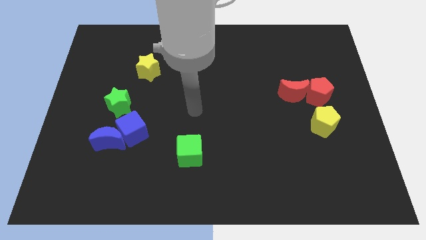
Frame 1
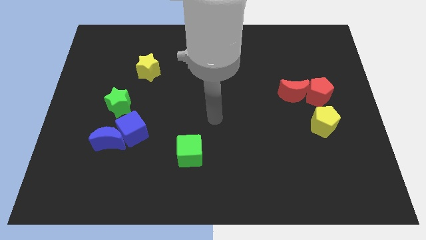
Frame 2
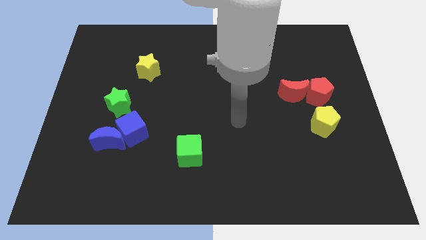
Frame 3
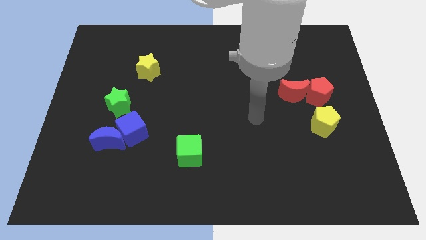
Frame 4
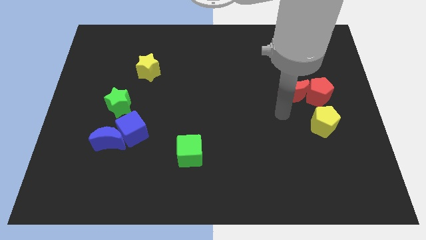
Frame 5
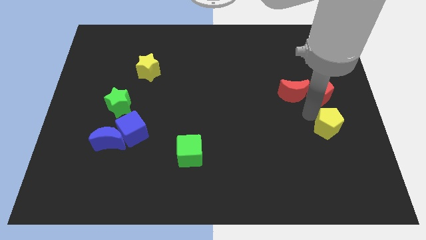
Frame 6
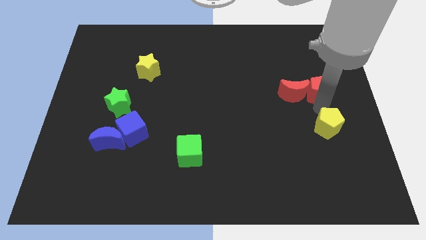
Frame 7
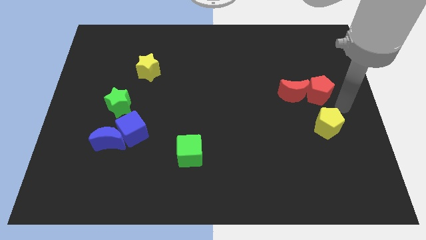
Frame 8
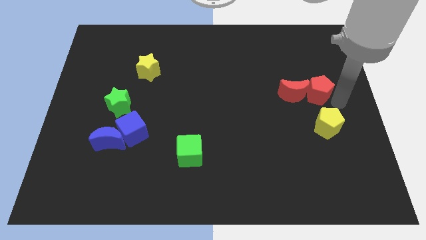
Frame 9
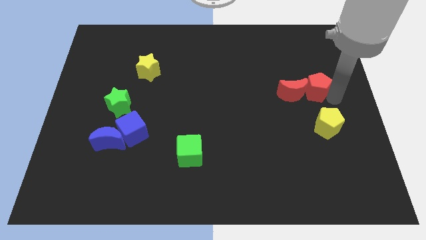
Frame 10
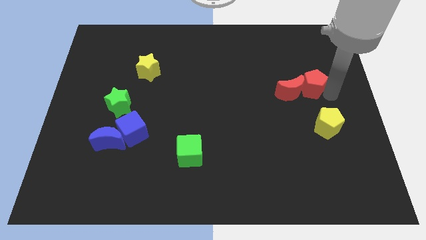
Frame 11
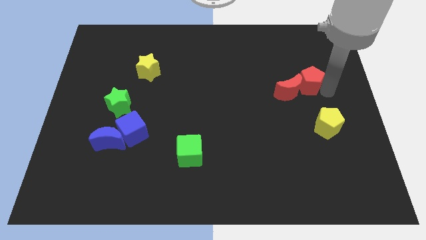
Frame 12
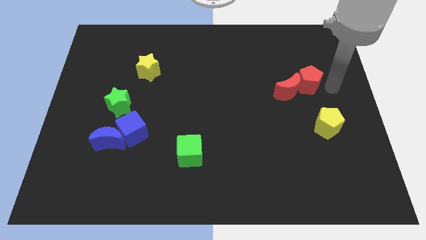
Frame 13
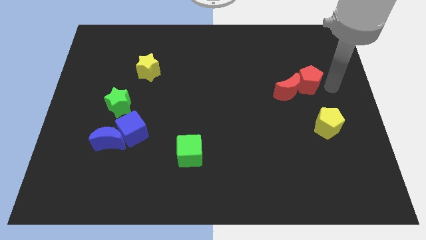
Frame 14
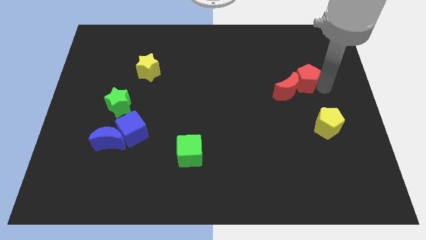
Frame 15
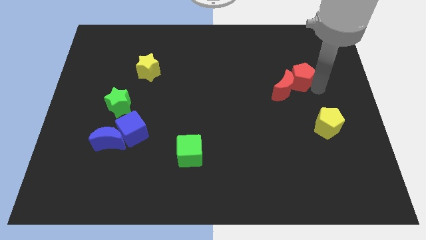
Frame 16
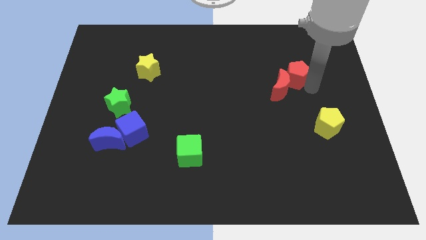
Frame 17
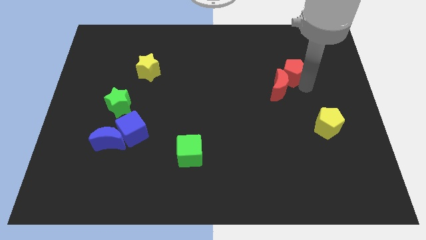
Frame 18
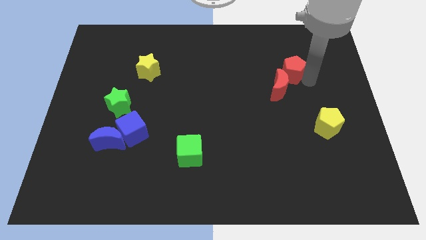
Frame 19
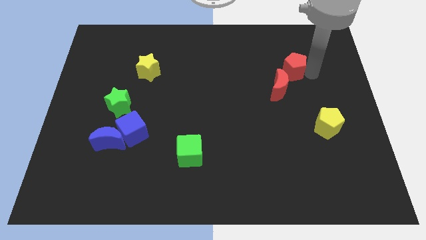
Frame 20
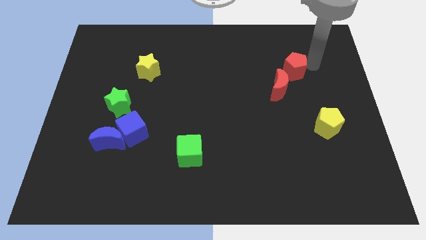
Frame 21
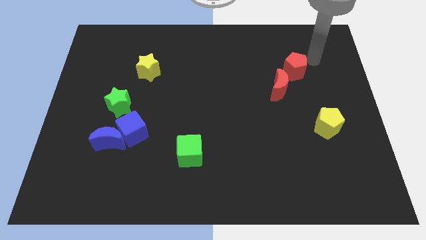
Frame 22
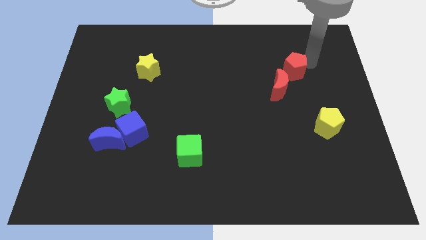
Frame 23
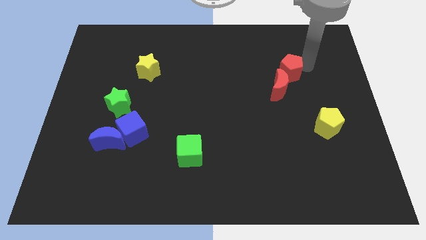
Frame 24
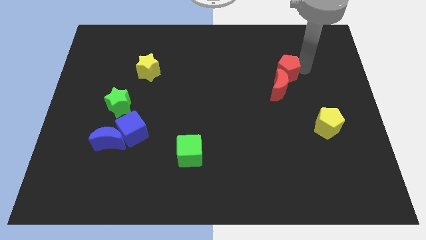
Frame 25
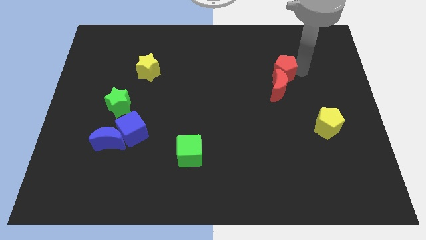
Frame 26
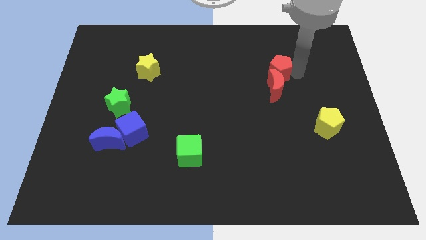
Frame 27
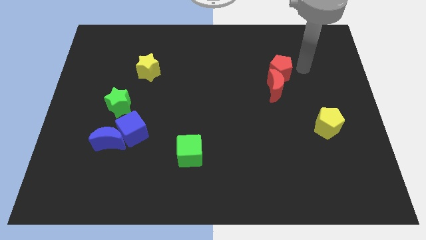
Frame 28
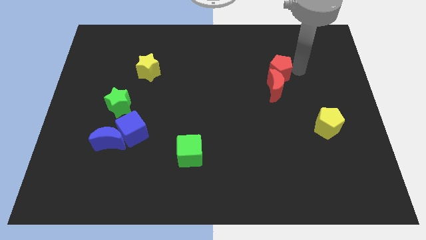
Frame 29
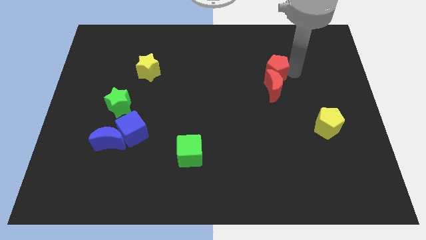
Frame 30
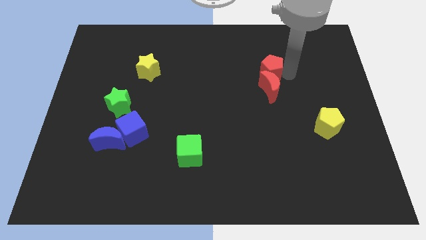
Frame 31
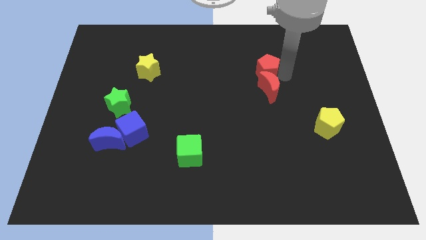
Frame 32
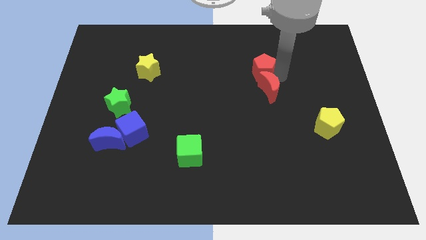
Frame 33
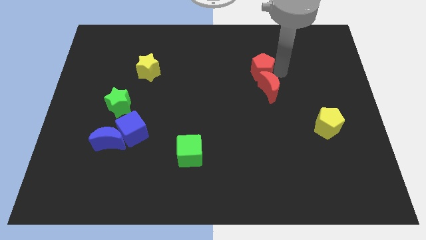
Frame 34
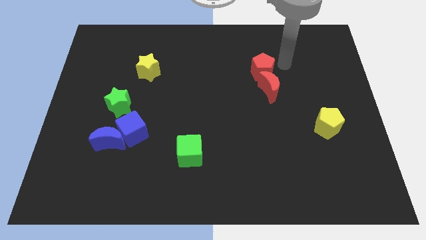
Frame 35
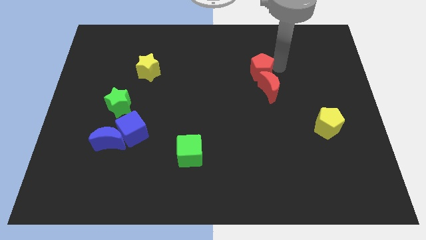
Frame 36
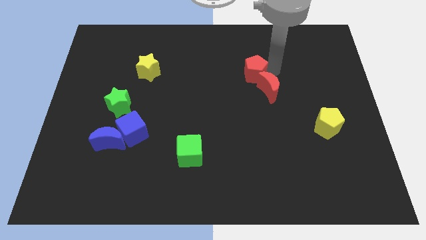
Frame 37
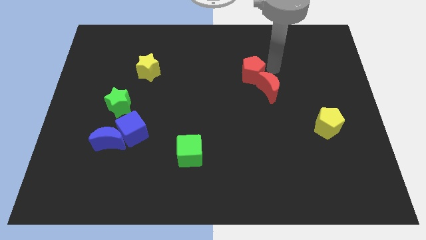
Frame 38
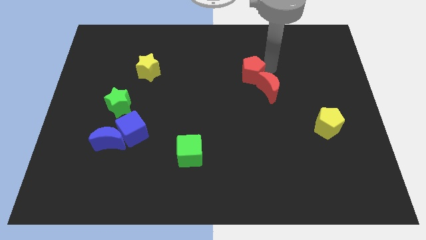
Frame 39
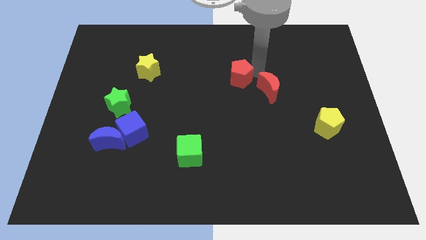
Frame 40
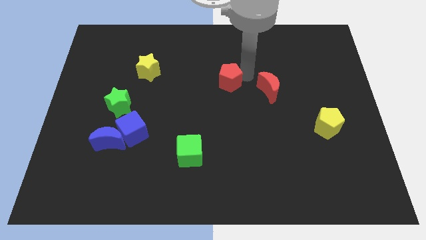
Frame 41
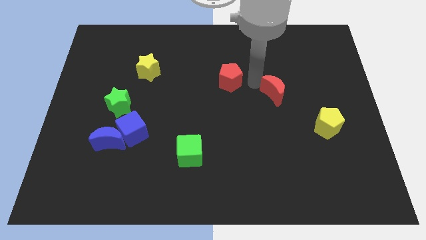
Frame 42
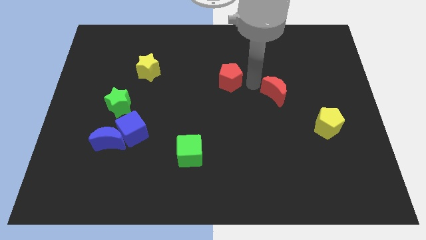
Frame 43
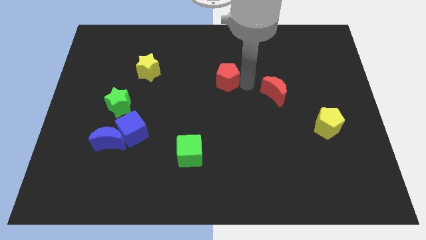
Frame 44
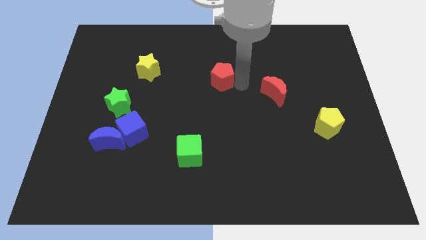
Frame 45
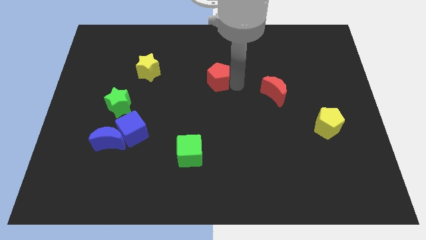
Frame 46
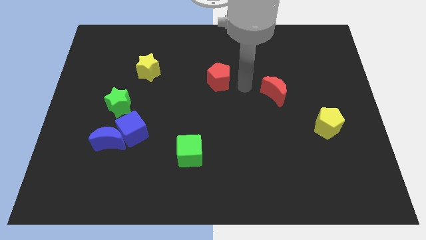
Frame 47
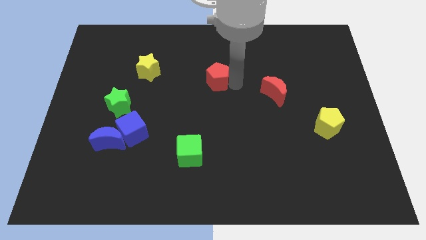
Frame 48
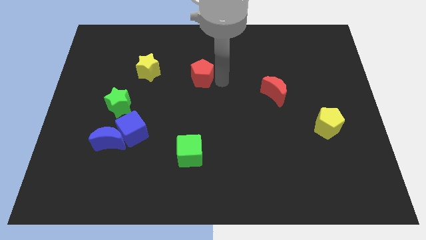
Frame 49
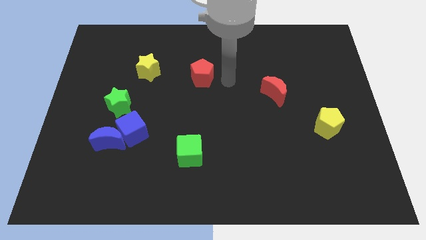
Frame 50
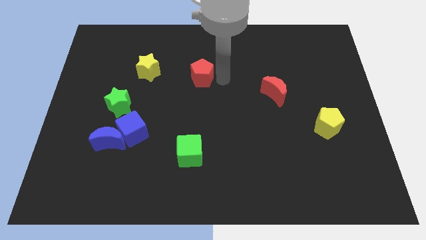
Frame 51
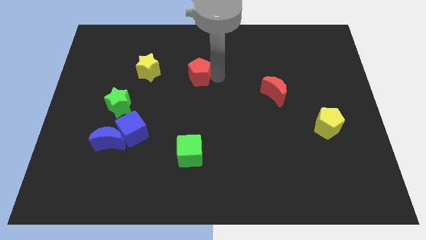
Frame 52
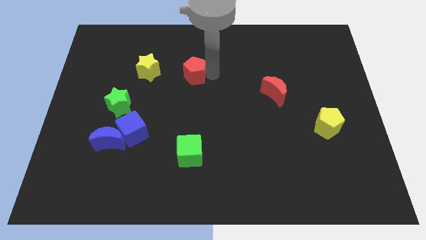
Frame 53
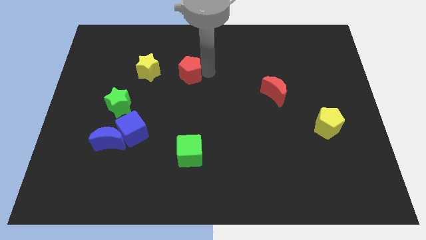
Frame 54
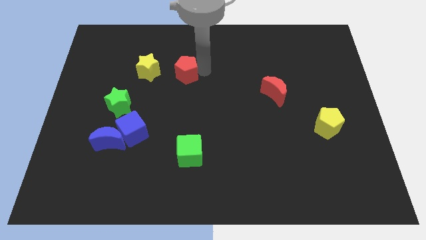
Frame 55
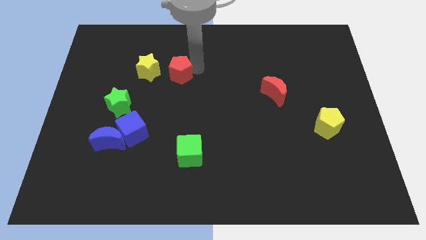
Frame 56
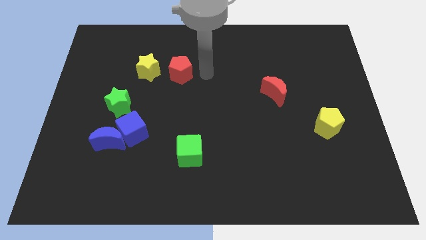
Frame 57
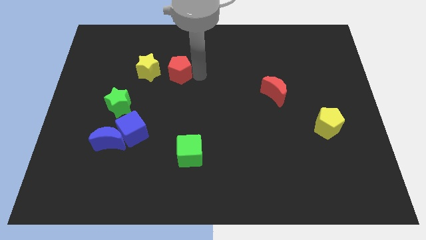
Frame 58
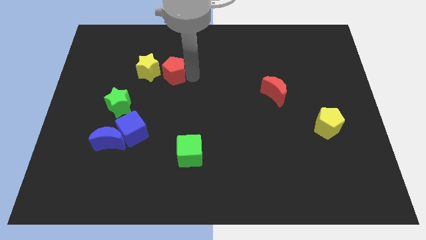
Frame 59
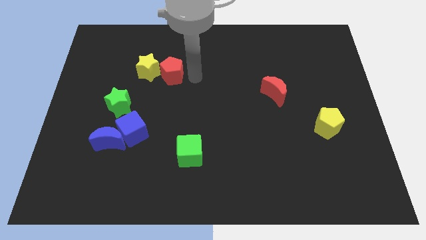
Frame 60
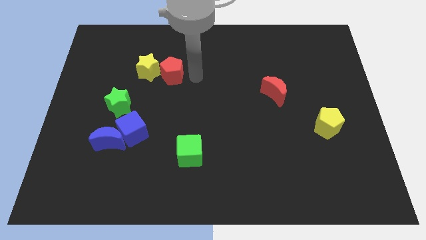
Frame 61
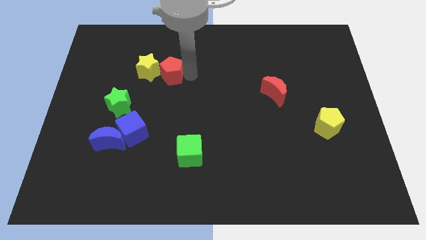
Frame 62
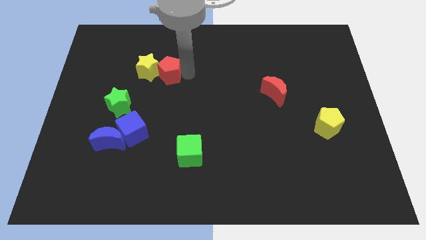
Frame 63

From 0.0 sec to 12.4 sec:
push the red pentagon towards the yellow star

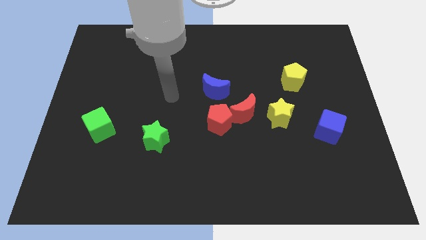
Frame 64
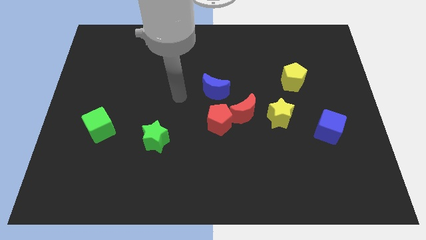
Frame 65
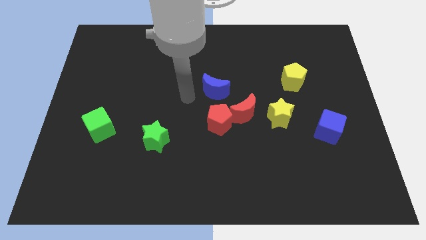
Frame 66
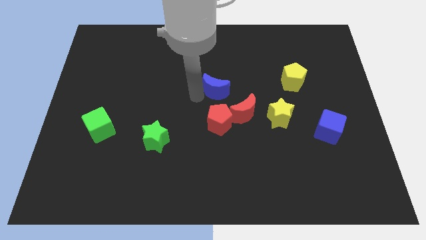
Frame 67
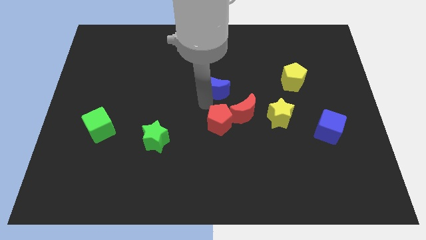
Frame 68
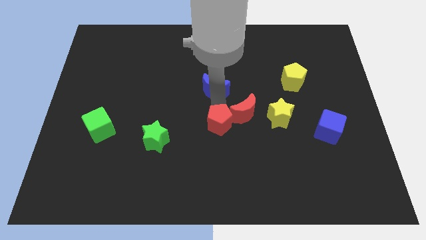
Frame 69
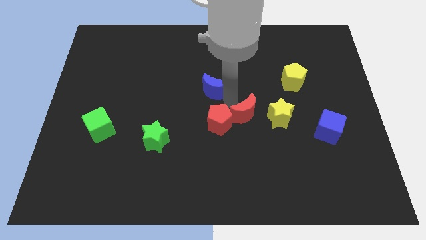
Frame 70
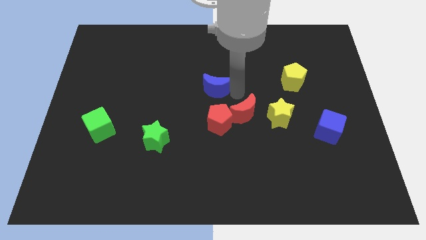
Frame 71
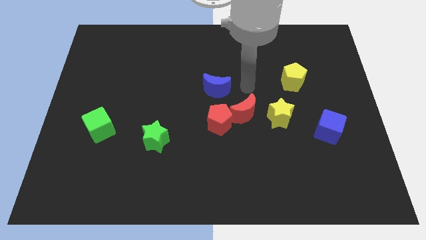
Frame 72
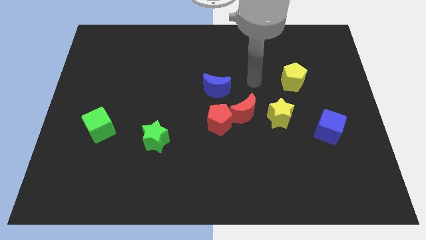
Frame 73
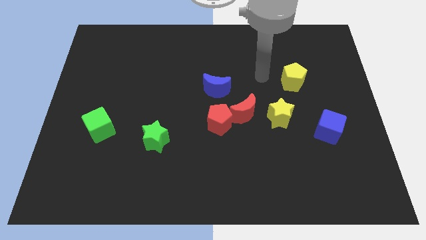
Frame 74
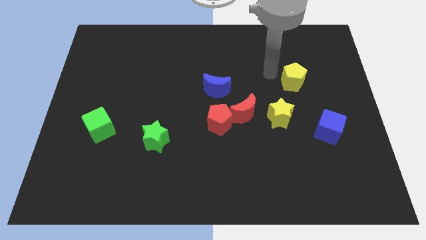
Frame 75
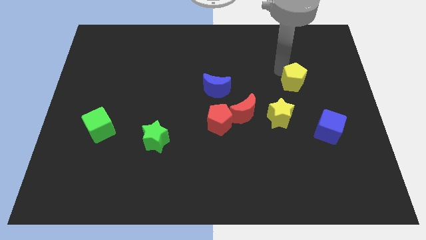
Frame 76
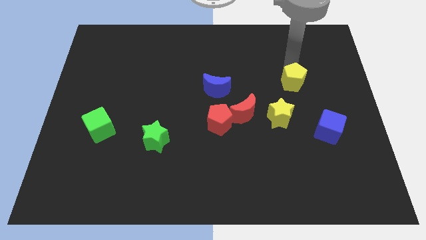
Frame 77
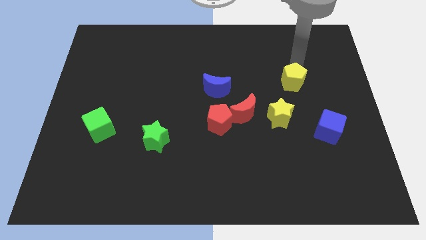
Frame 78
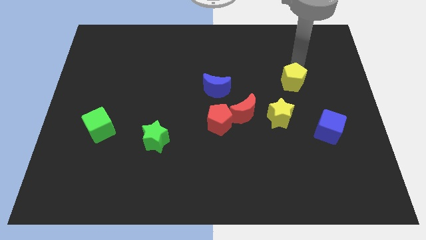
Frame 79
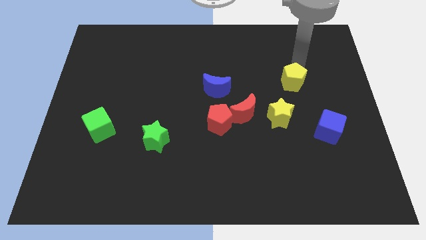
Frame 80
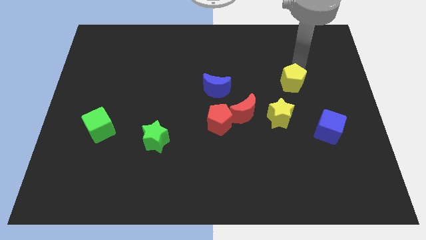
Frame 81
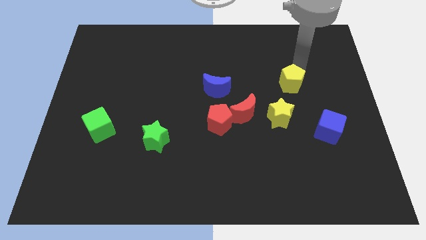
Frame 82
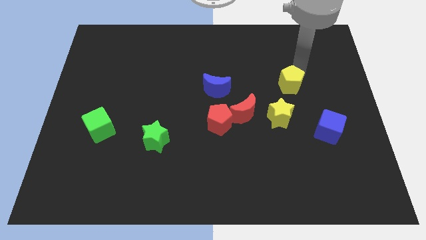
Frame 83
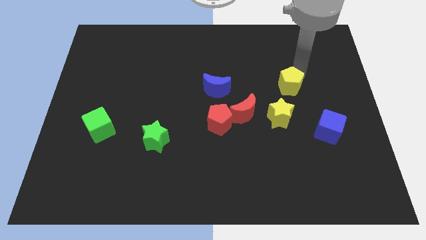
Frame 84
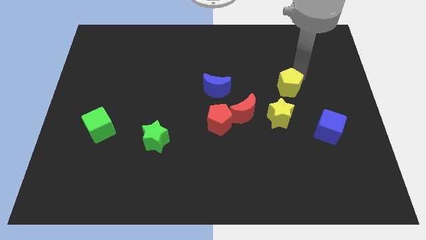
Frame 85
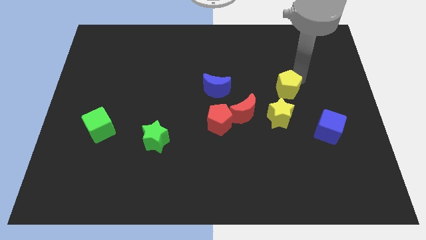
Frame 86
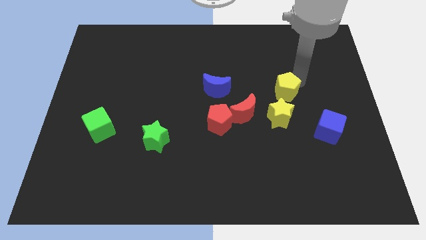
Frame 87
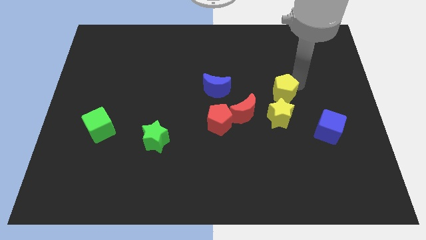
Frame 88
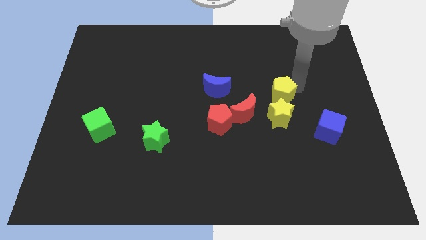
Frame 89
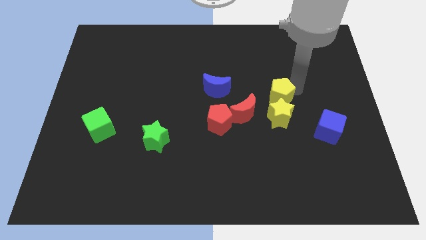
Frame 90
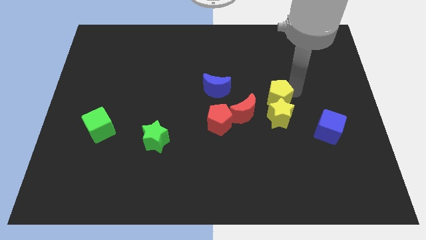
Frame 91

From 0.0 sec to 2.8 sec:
push the yellow pentagon close to the yellow star
